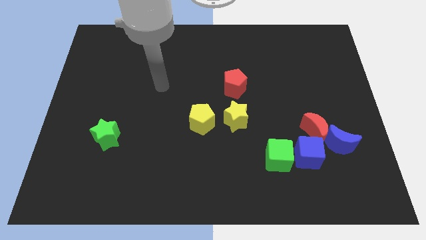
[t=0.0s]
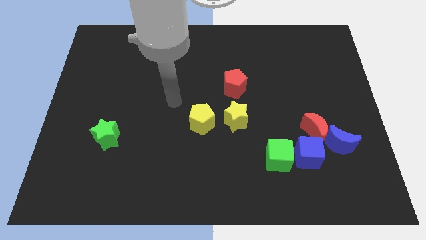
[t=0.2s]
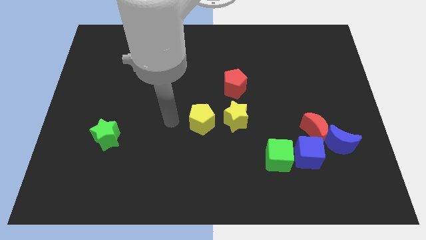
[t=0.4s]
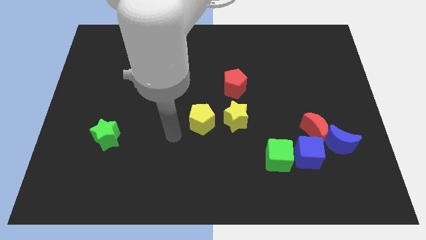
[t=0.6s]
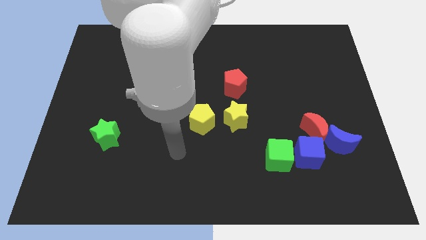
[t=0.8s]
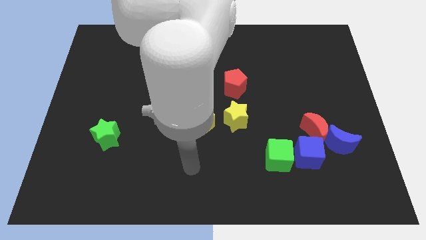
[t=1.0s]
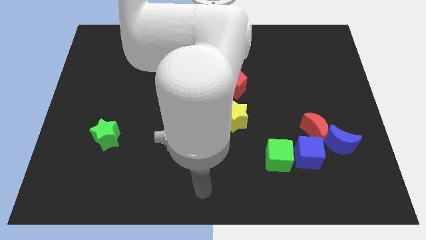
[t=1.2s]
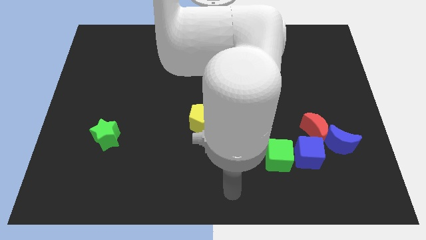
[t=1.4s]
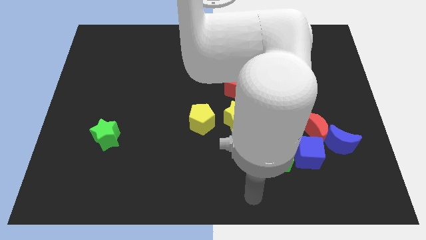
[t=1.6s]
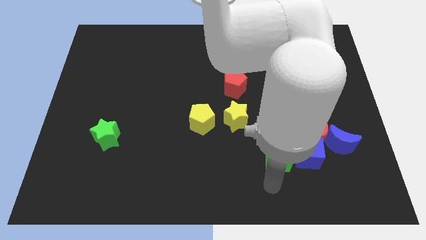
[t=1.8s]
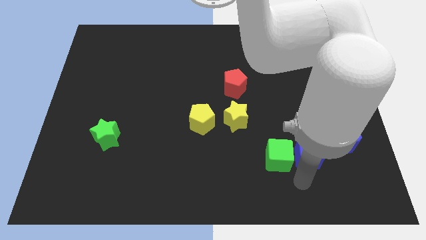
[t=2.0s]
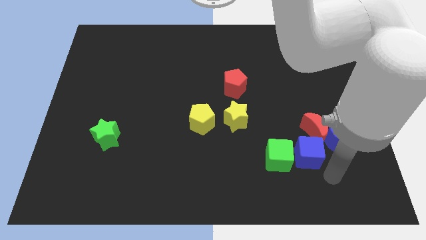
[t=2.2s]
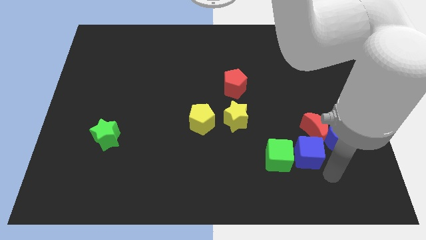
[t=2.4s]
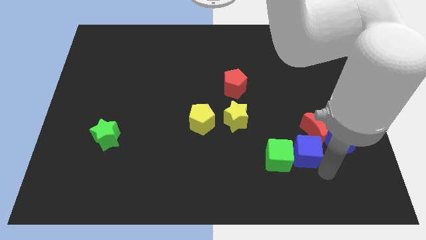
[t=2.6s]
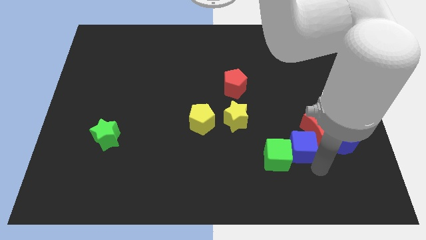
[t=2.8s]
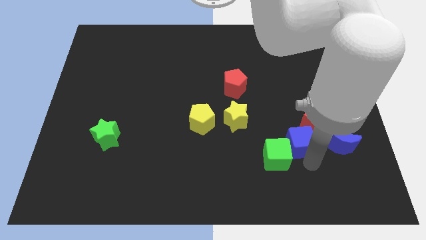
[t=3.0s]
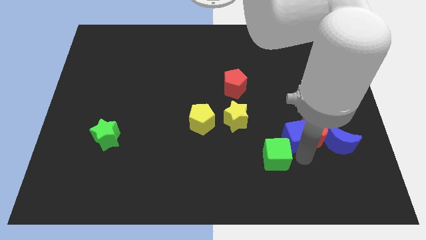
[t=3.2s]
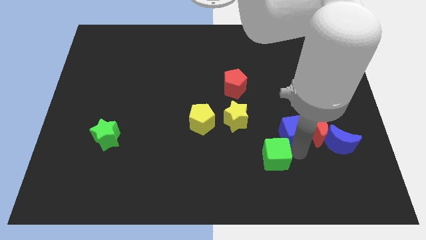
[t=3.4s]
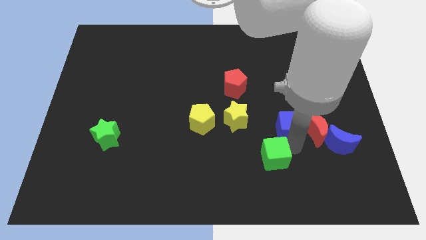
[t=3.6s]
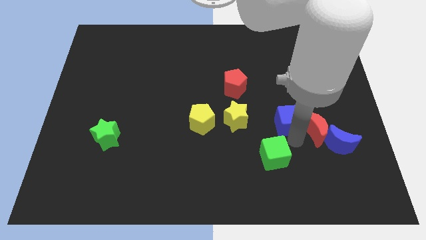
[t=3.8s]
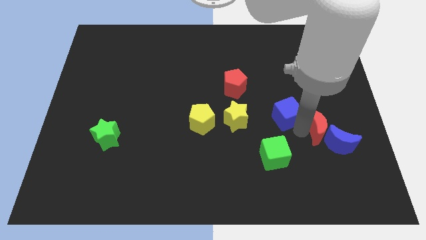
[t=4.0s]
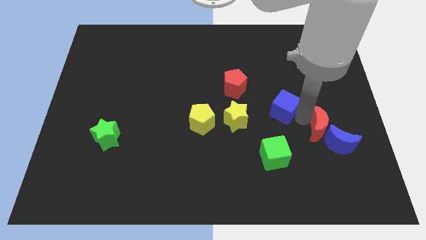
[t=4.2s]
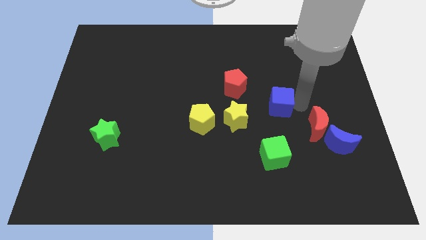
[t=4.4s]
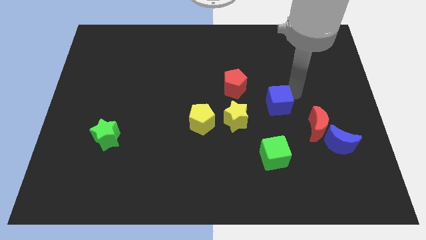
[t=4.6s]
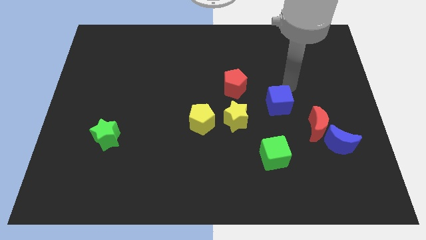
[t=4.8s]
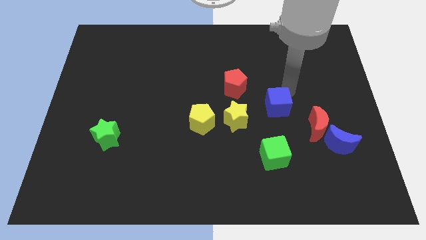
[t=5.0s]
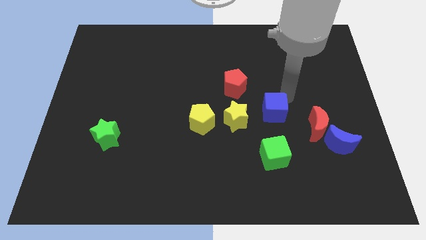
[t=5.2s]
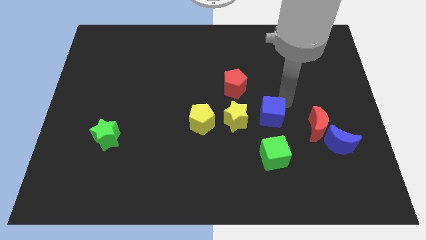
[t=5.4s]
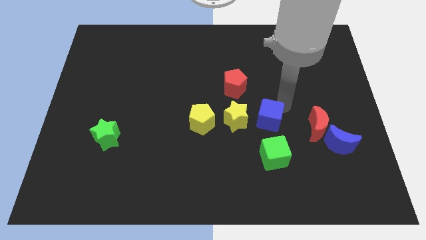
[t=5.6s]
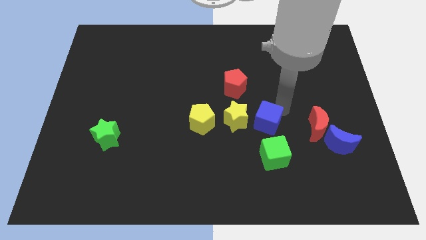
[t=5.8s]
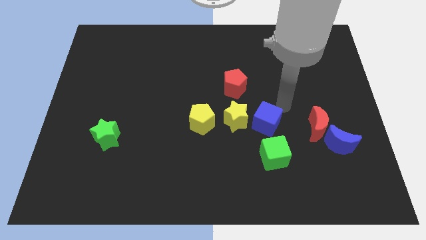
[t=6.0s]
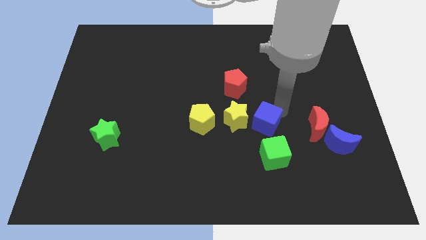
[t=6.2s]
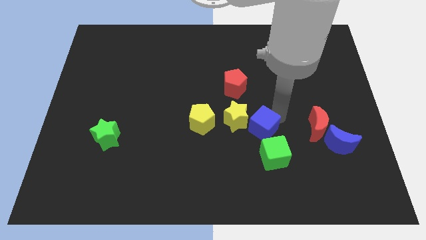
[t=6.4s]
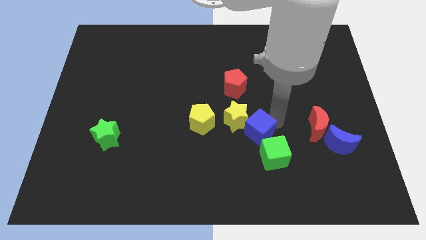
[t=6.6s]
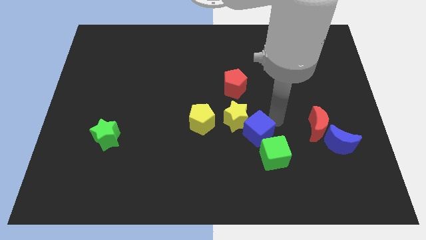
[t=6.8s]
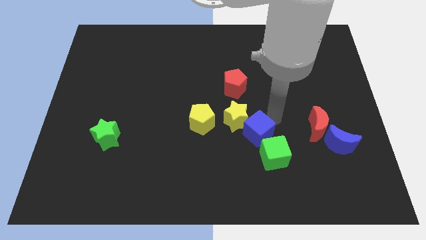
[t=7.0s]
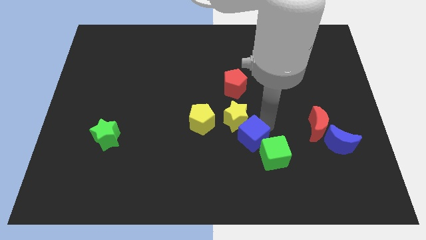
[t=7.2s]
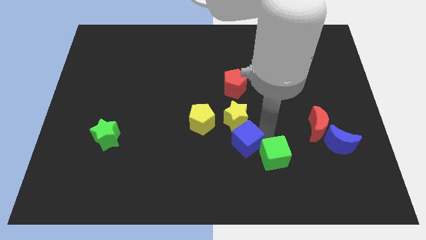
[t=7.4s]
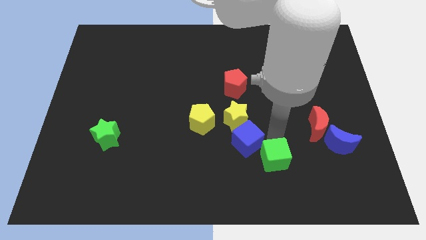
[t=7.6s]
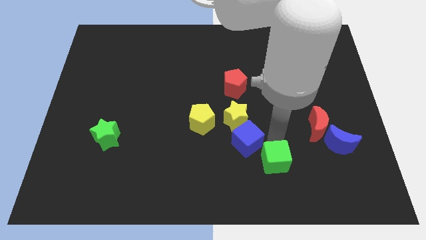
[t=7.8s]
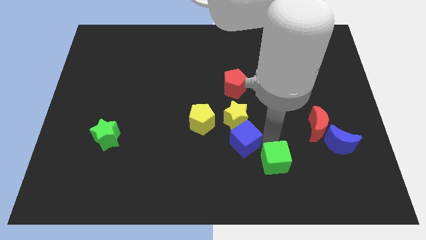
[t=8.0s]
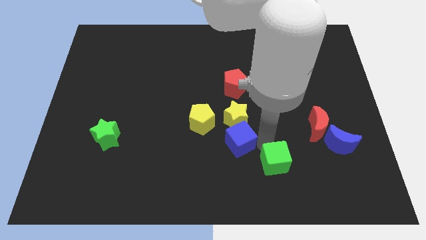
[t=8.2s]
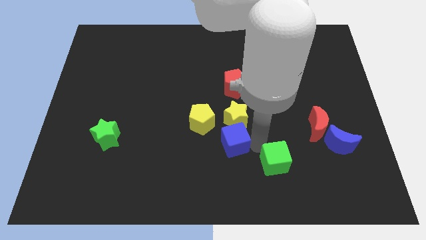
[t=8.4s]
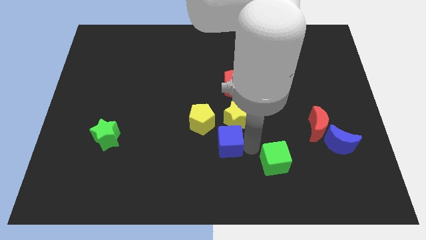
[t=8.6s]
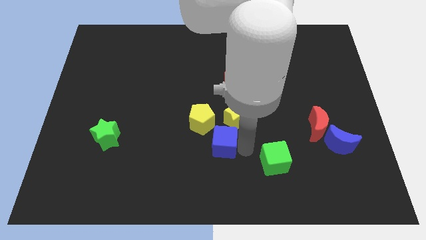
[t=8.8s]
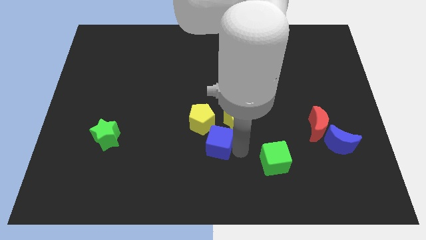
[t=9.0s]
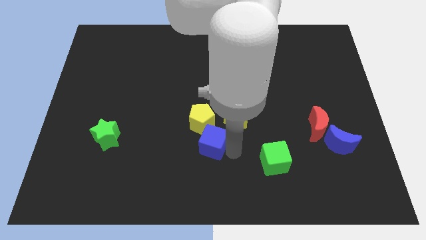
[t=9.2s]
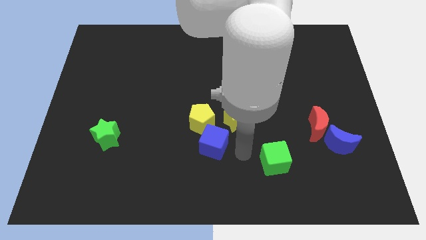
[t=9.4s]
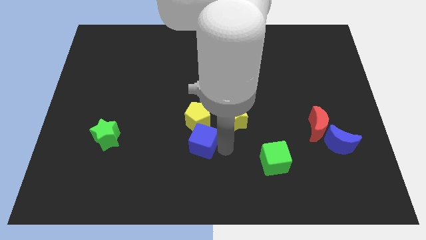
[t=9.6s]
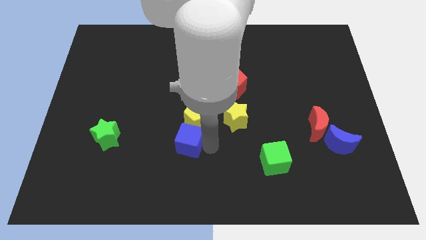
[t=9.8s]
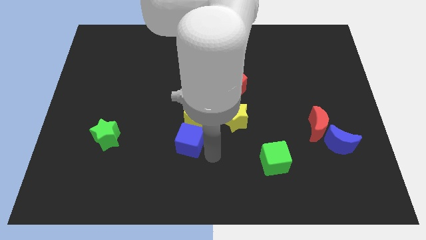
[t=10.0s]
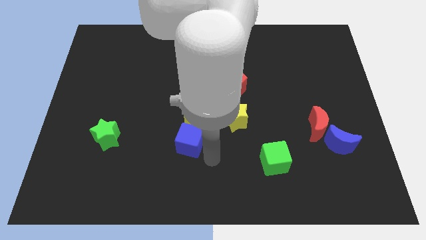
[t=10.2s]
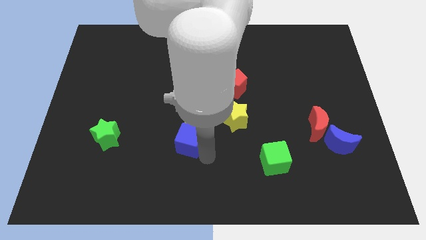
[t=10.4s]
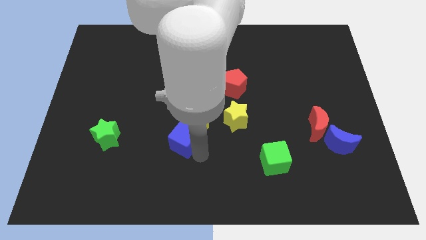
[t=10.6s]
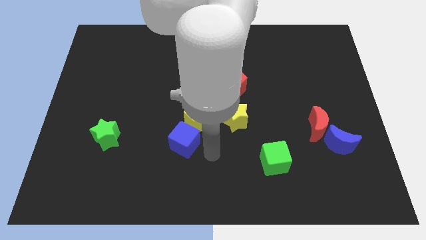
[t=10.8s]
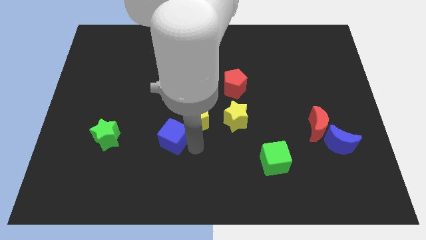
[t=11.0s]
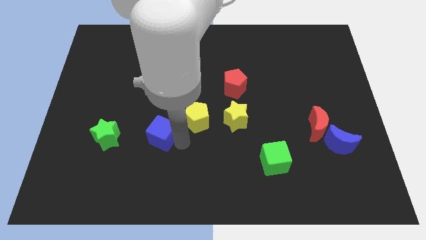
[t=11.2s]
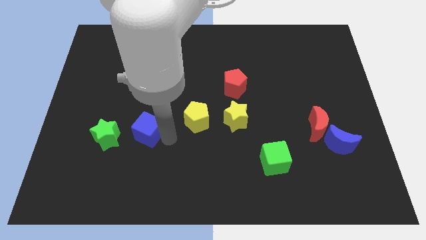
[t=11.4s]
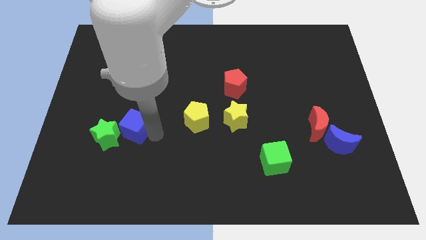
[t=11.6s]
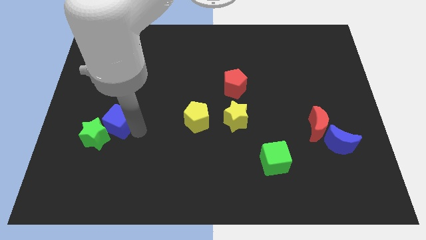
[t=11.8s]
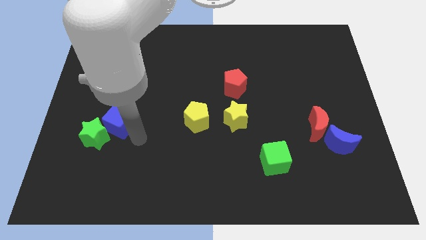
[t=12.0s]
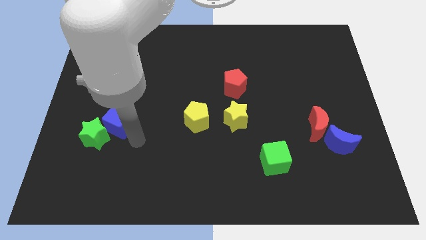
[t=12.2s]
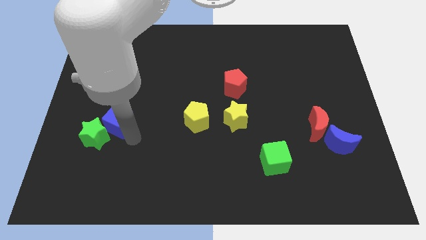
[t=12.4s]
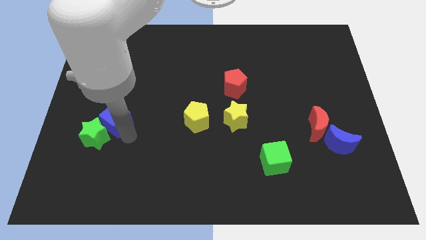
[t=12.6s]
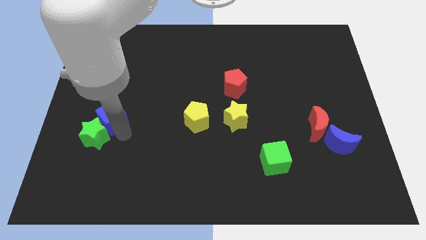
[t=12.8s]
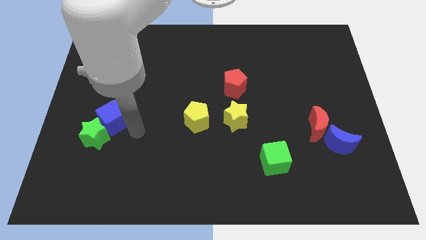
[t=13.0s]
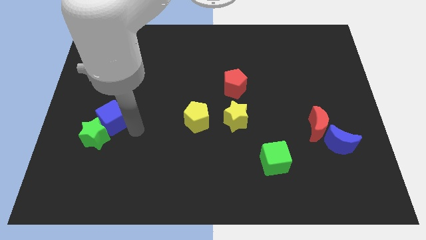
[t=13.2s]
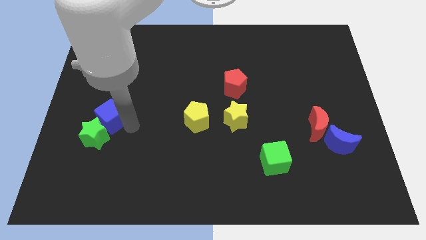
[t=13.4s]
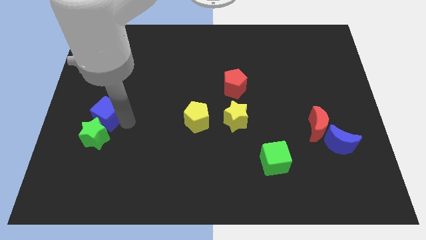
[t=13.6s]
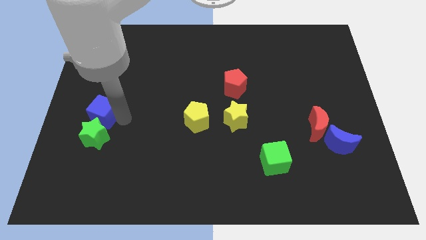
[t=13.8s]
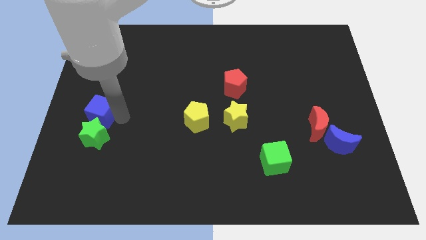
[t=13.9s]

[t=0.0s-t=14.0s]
slide the blue cube to the center left
